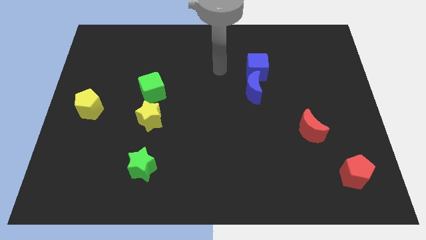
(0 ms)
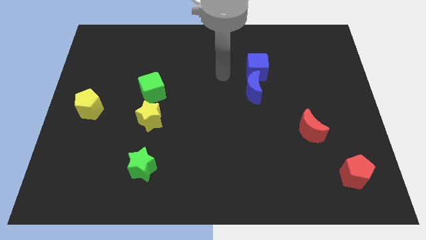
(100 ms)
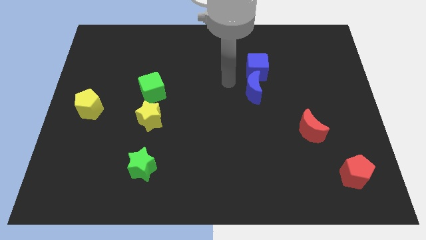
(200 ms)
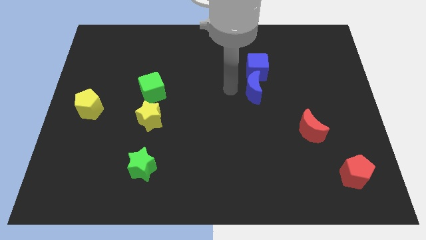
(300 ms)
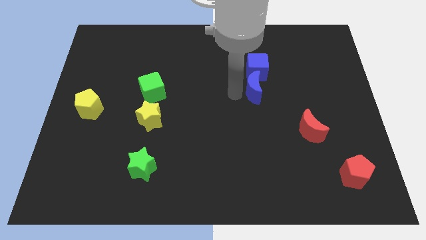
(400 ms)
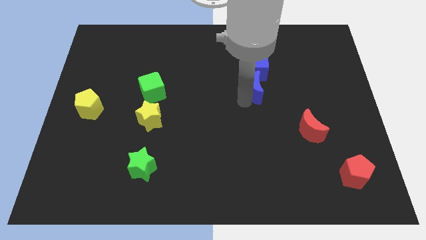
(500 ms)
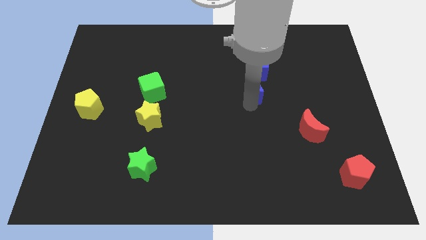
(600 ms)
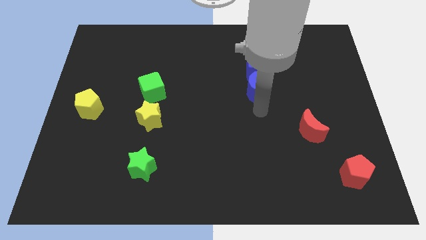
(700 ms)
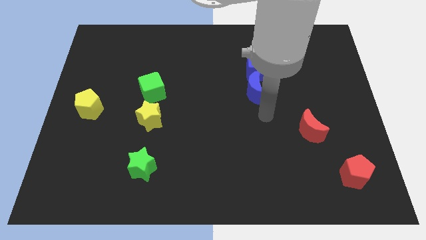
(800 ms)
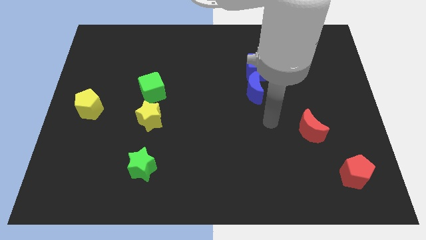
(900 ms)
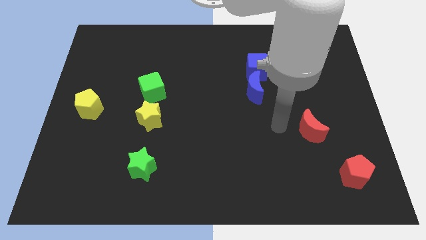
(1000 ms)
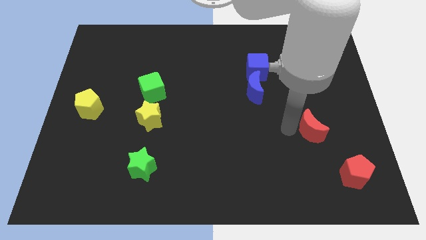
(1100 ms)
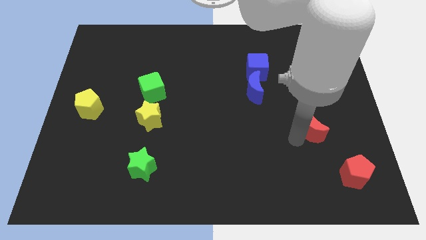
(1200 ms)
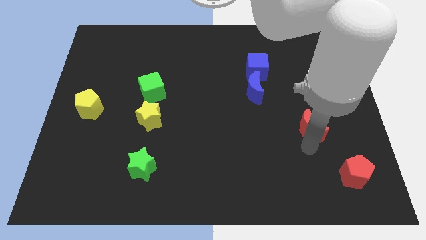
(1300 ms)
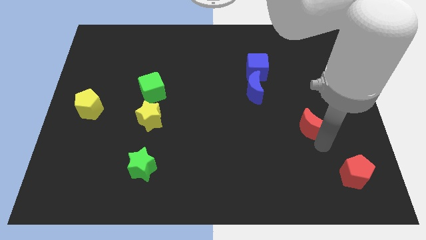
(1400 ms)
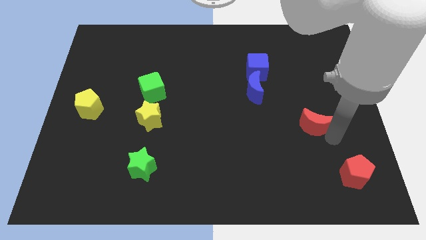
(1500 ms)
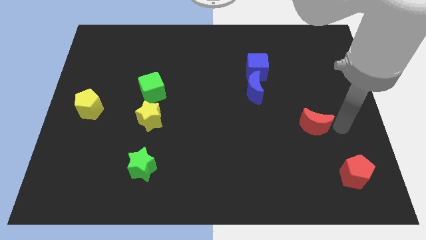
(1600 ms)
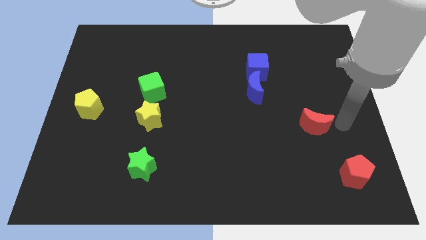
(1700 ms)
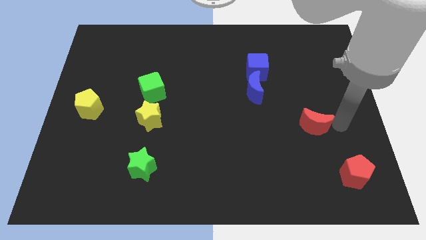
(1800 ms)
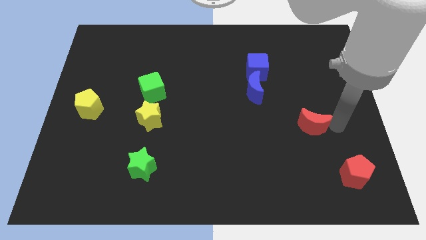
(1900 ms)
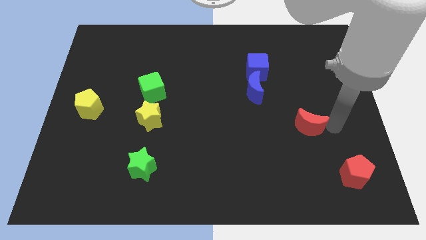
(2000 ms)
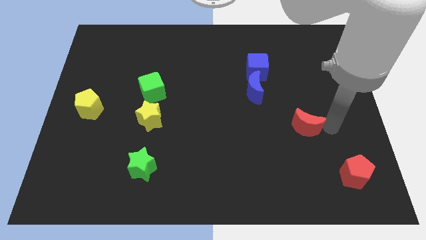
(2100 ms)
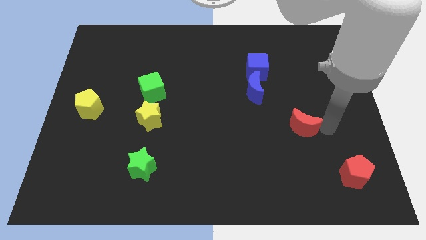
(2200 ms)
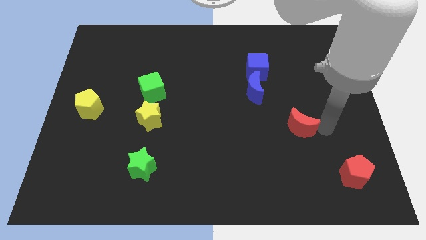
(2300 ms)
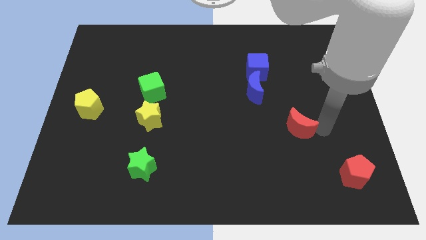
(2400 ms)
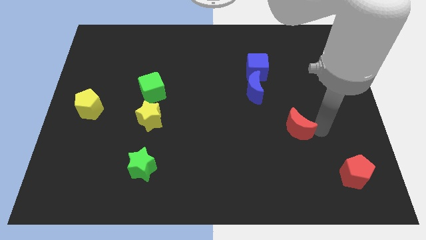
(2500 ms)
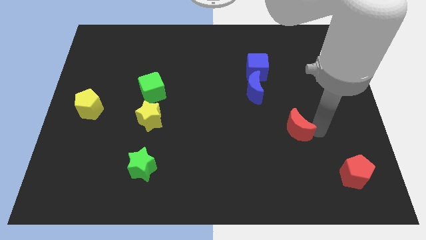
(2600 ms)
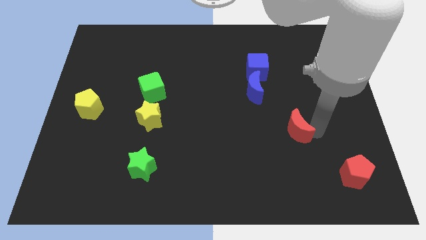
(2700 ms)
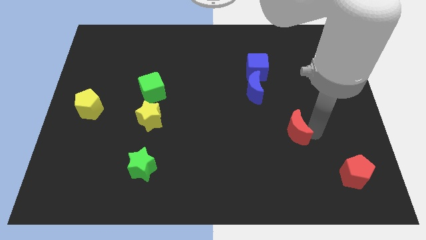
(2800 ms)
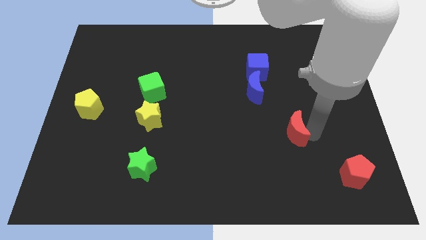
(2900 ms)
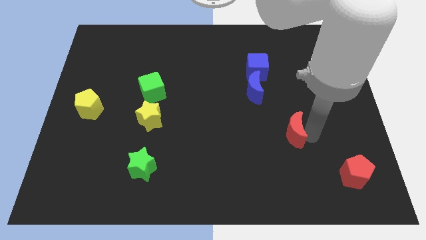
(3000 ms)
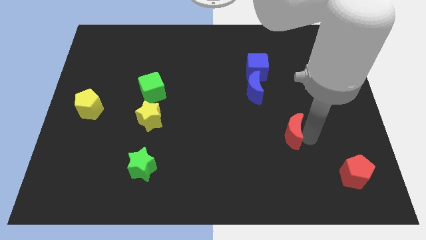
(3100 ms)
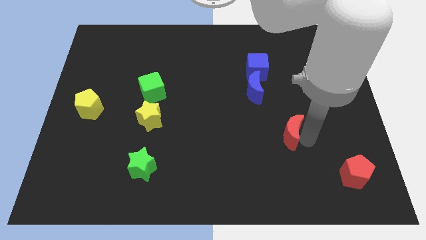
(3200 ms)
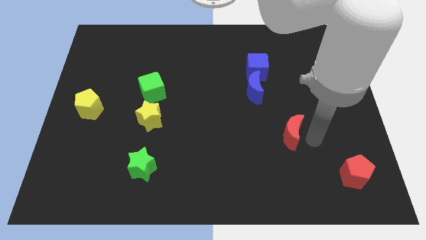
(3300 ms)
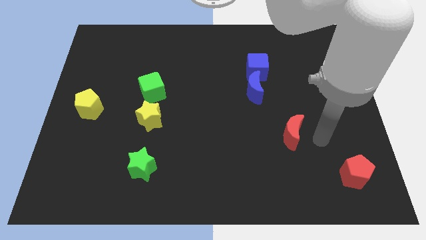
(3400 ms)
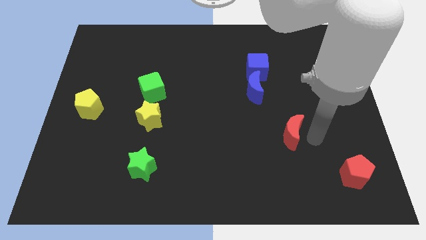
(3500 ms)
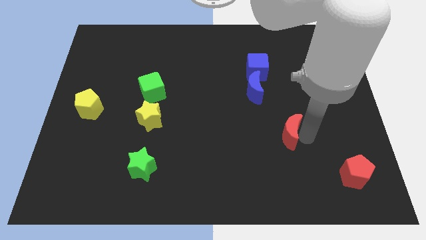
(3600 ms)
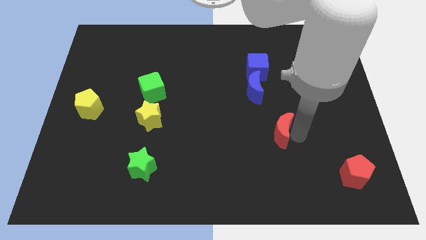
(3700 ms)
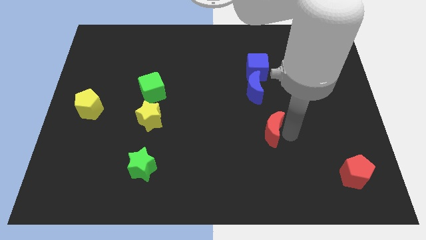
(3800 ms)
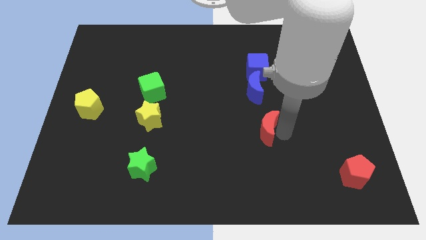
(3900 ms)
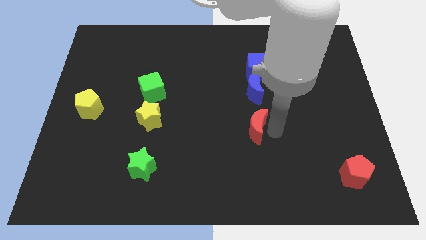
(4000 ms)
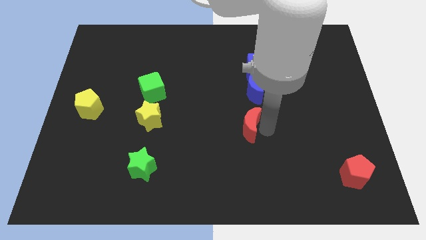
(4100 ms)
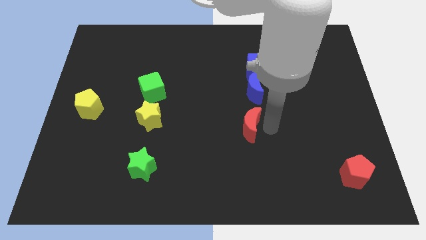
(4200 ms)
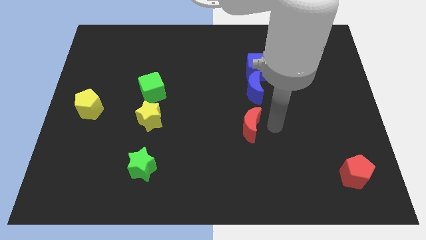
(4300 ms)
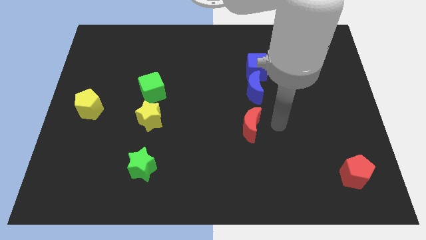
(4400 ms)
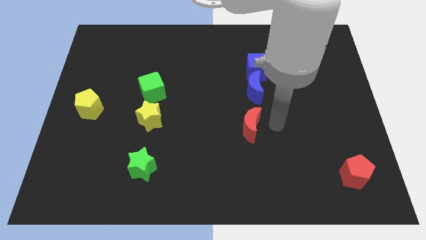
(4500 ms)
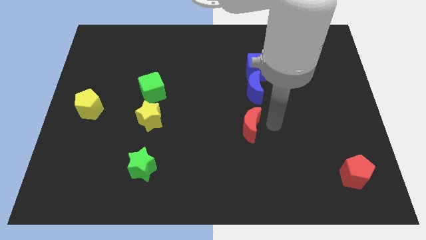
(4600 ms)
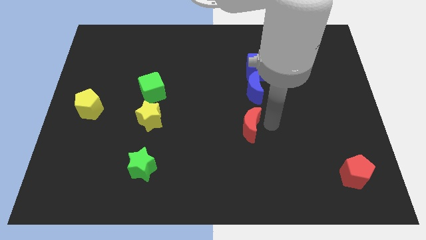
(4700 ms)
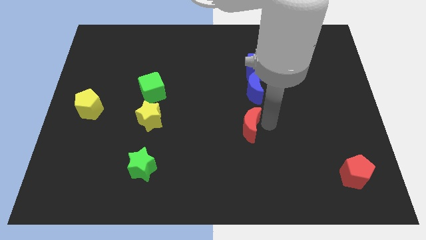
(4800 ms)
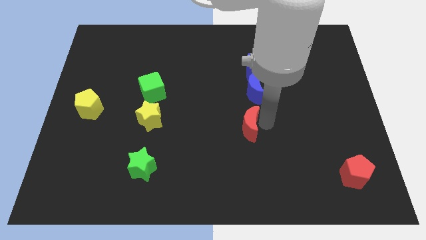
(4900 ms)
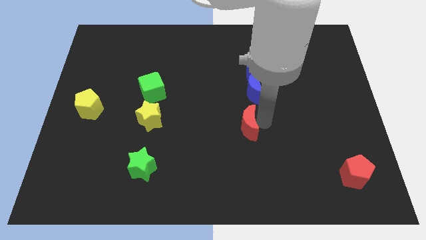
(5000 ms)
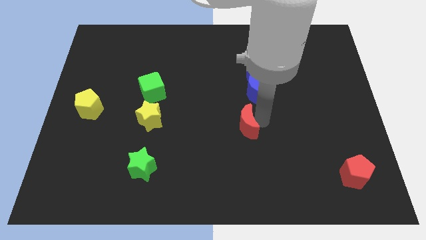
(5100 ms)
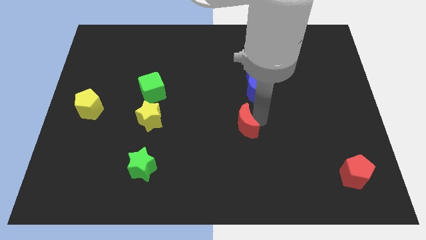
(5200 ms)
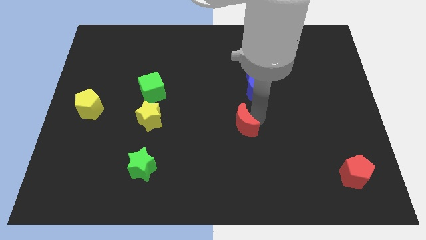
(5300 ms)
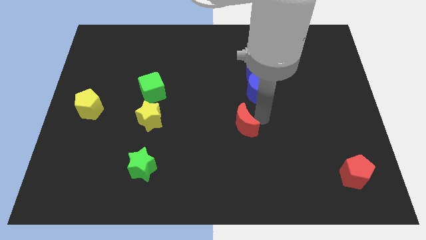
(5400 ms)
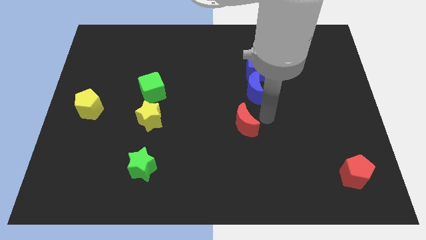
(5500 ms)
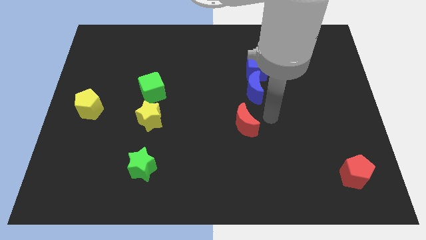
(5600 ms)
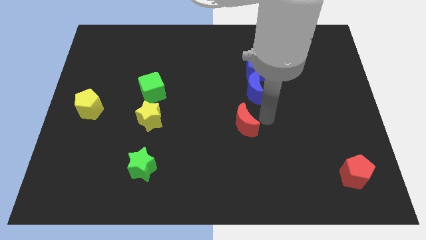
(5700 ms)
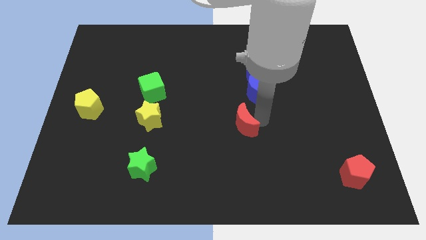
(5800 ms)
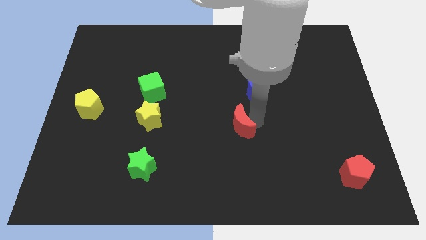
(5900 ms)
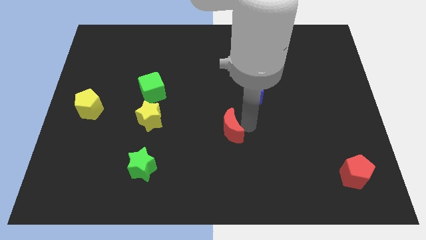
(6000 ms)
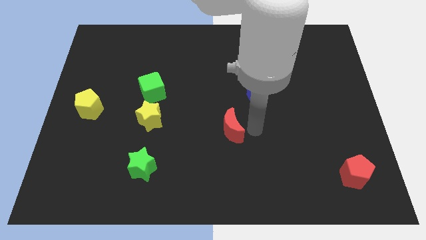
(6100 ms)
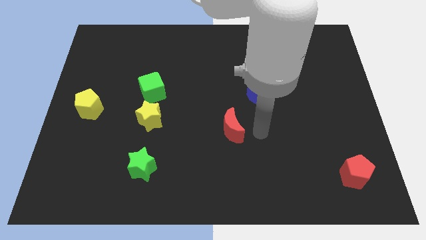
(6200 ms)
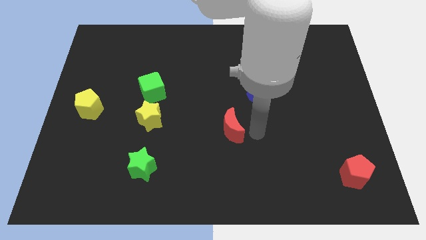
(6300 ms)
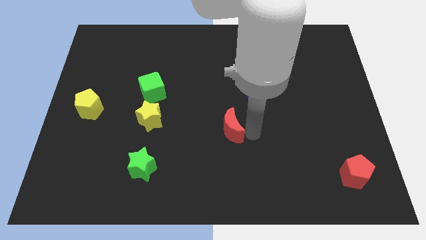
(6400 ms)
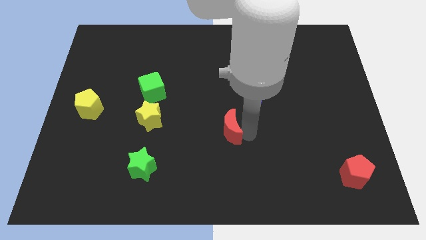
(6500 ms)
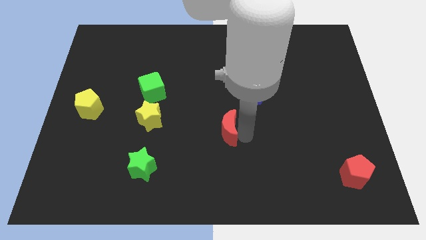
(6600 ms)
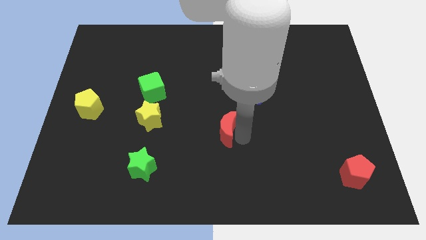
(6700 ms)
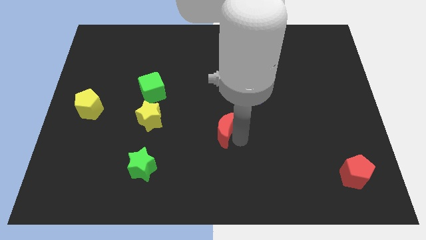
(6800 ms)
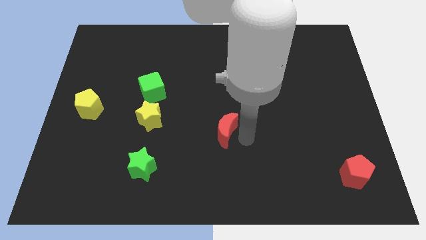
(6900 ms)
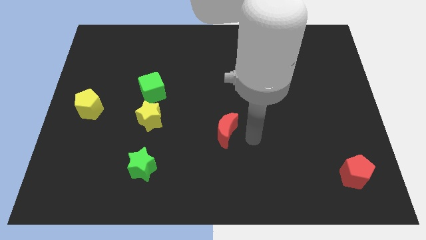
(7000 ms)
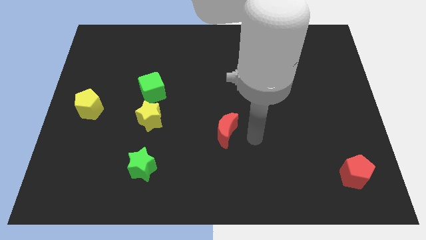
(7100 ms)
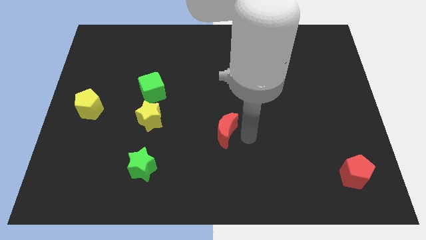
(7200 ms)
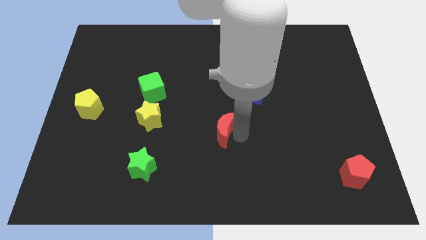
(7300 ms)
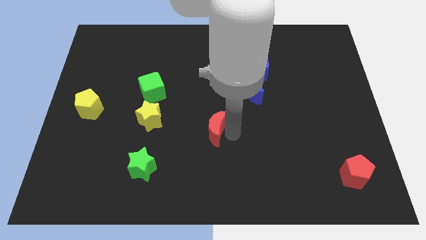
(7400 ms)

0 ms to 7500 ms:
move the red moon left

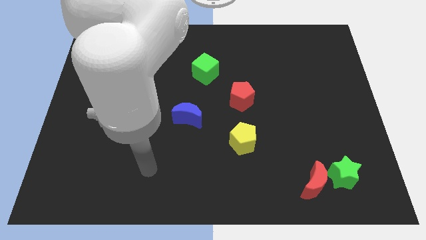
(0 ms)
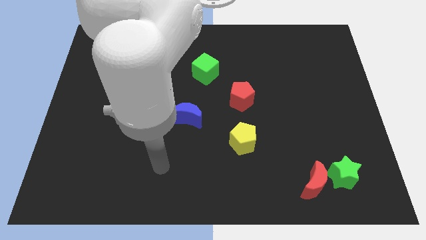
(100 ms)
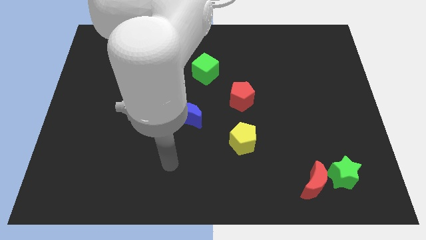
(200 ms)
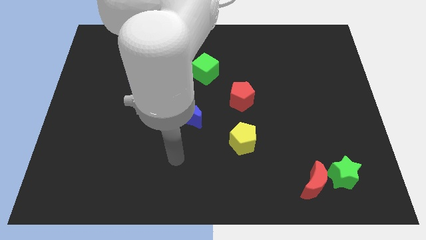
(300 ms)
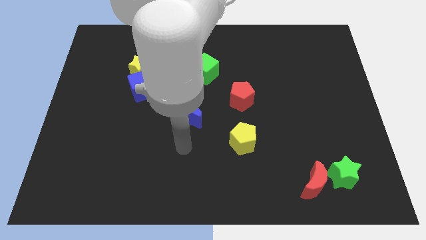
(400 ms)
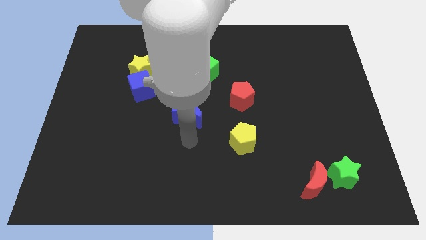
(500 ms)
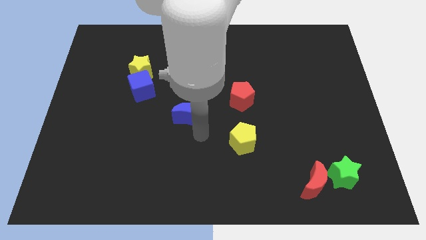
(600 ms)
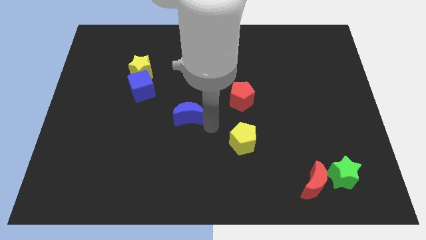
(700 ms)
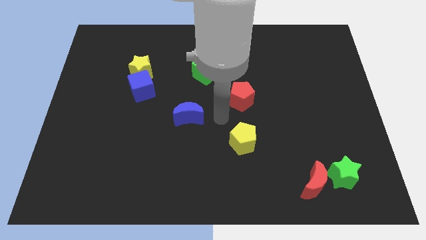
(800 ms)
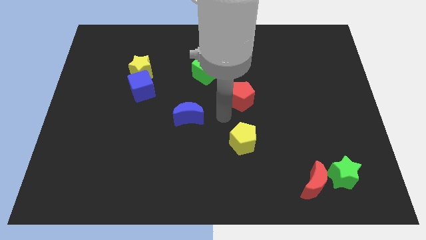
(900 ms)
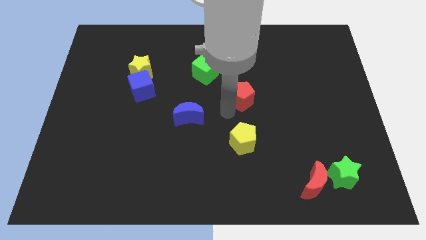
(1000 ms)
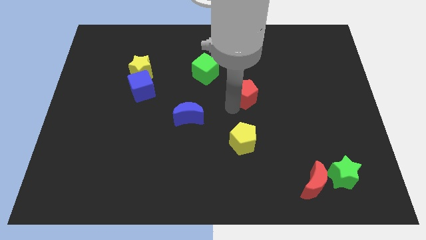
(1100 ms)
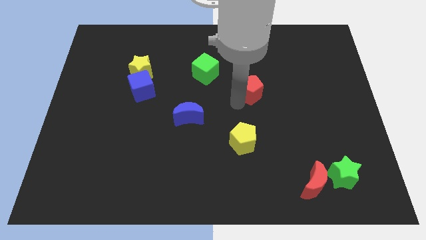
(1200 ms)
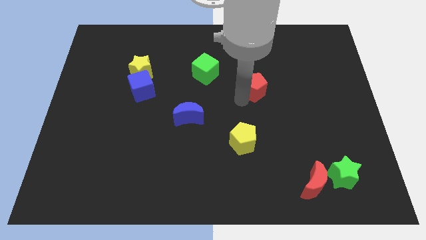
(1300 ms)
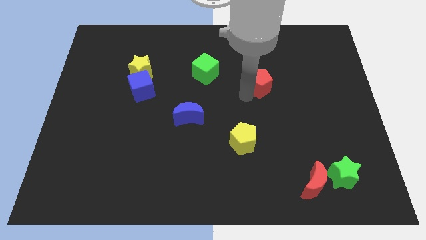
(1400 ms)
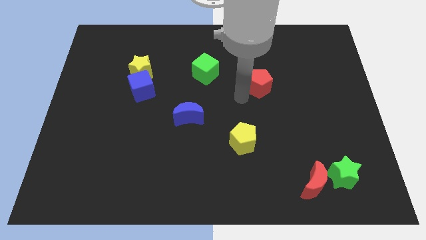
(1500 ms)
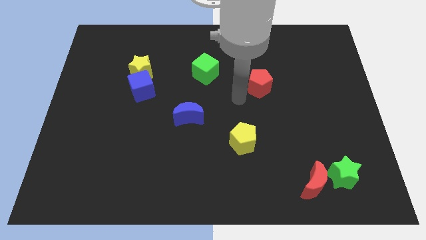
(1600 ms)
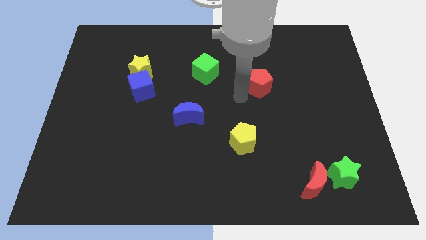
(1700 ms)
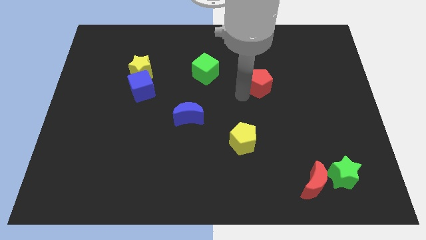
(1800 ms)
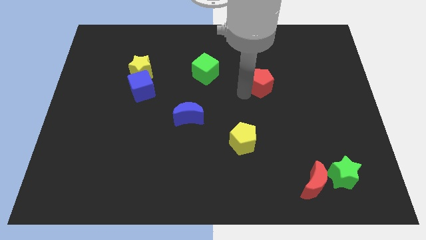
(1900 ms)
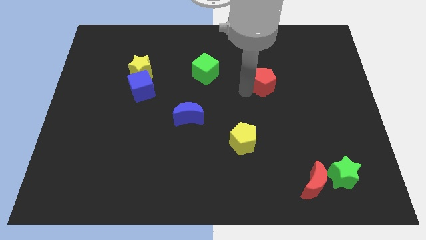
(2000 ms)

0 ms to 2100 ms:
push the red pentagon upwards and to the right diagonally a little
